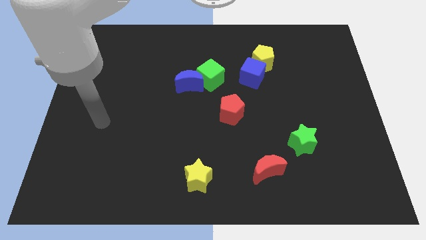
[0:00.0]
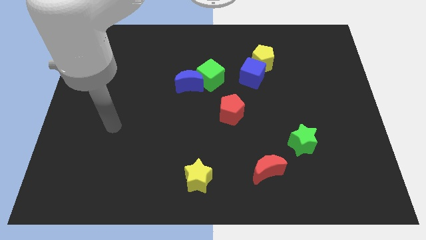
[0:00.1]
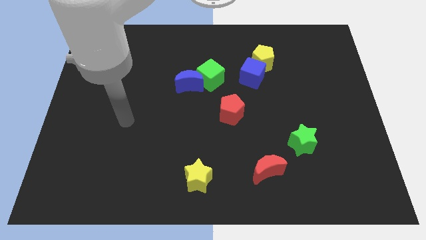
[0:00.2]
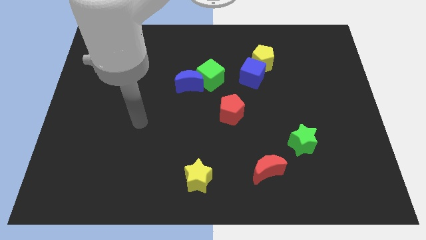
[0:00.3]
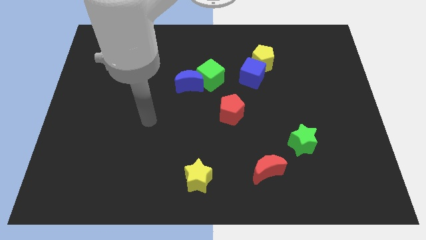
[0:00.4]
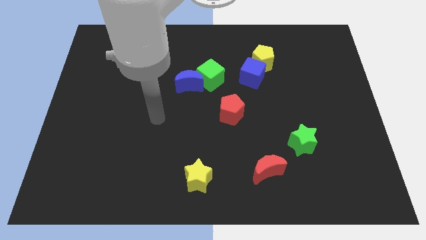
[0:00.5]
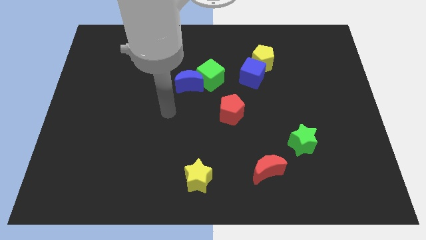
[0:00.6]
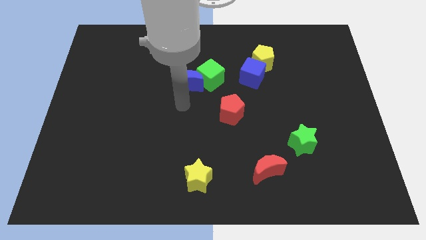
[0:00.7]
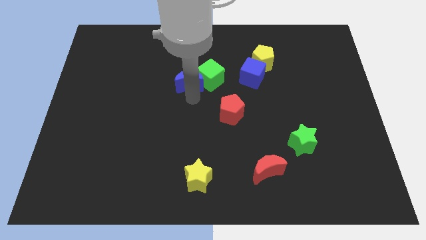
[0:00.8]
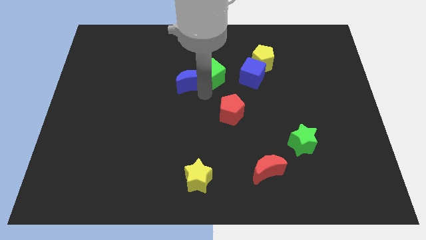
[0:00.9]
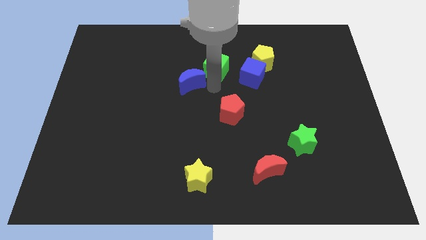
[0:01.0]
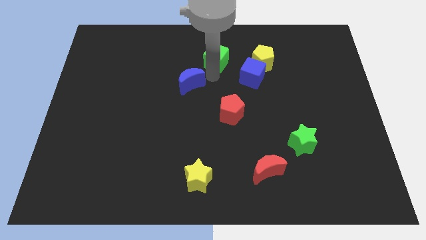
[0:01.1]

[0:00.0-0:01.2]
separate the blue moon from the green cube

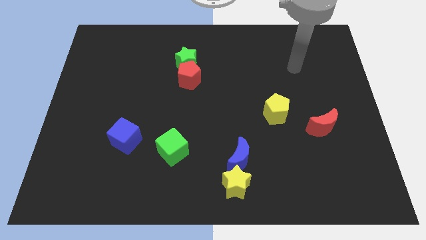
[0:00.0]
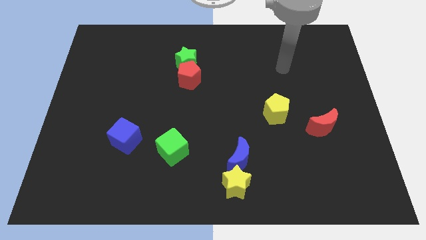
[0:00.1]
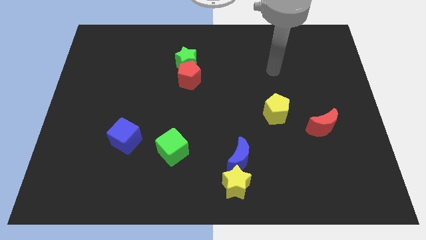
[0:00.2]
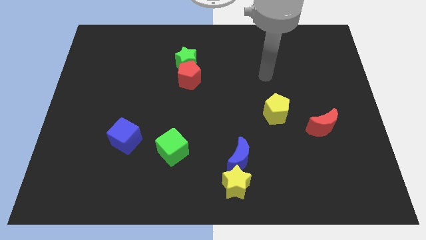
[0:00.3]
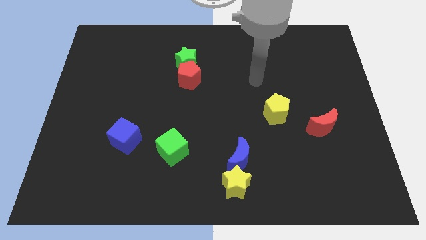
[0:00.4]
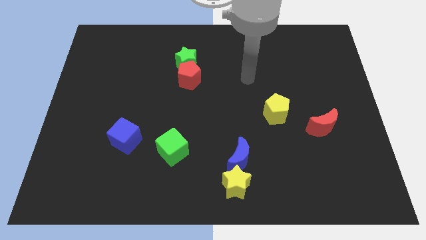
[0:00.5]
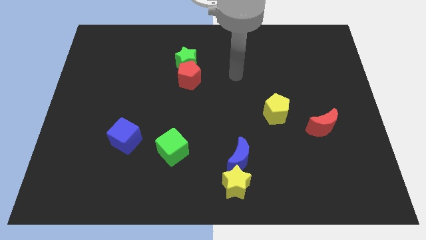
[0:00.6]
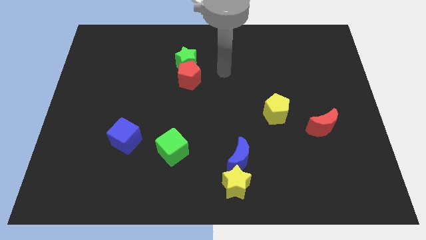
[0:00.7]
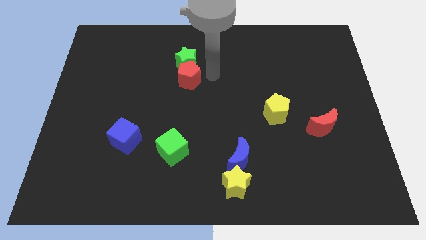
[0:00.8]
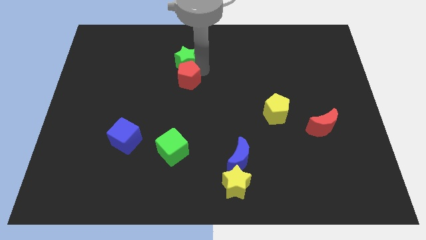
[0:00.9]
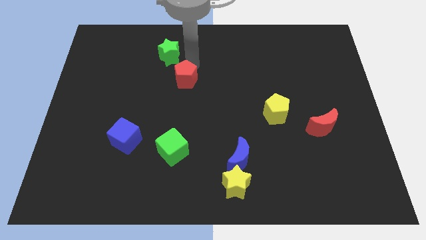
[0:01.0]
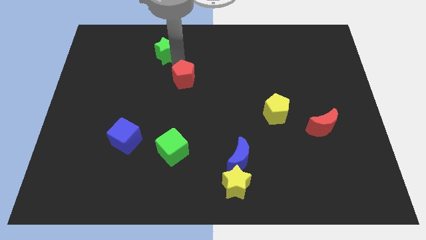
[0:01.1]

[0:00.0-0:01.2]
separate the red pentagon from the green star

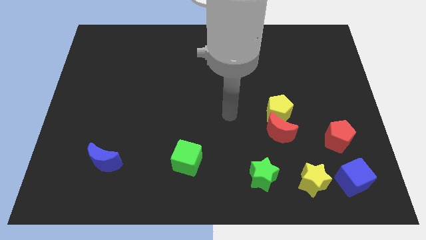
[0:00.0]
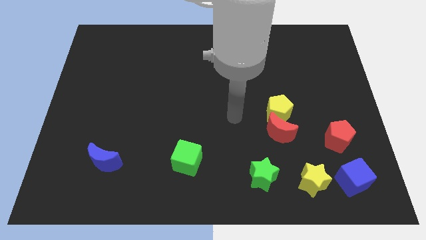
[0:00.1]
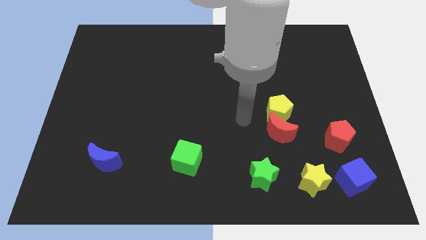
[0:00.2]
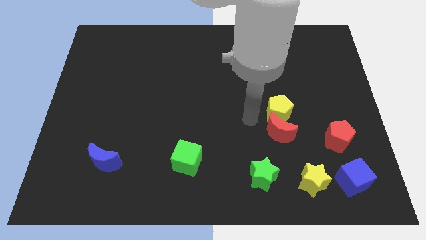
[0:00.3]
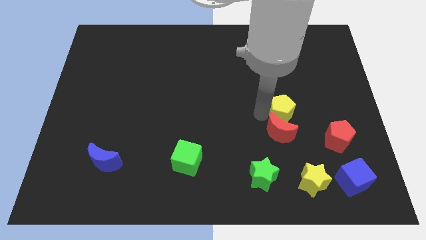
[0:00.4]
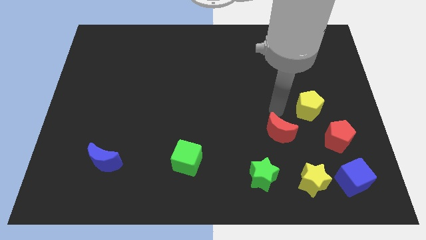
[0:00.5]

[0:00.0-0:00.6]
move the red moon away from the yellow pentagon

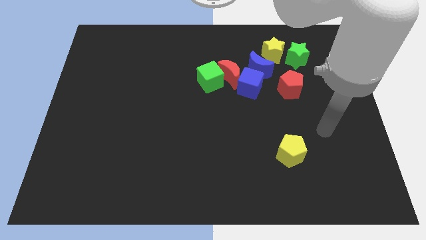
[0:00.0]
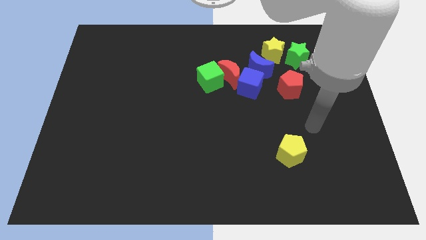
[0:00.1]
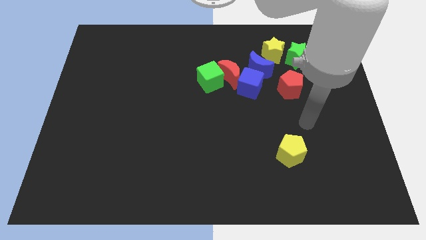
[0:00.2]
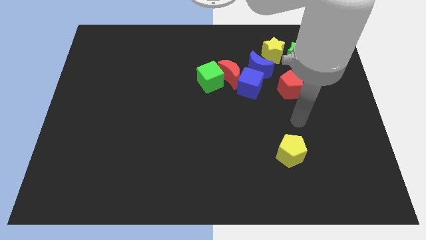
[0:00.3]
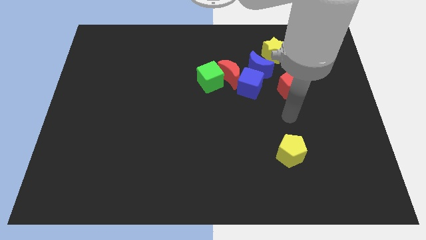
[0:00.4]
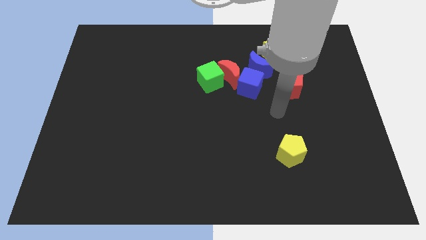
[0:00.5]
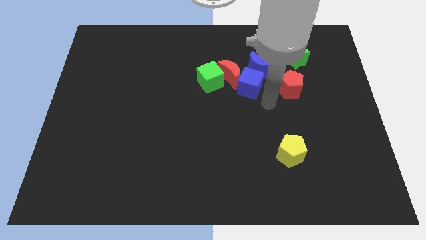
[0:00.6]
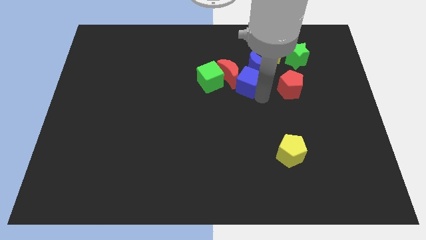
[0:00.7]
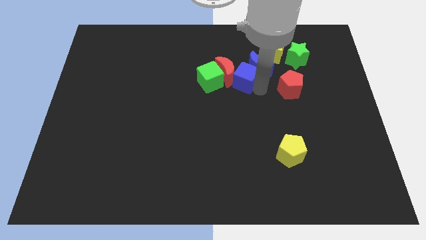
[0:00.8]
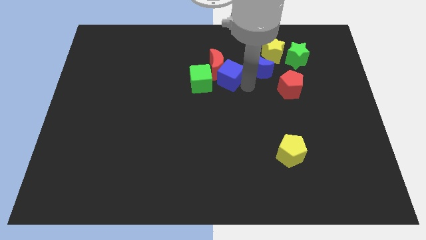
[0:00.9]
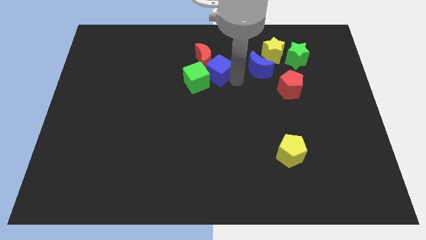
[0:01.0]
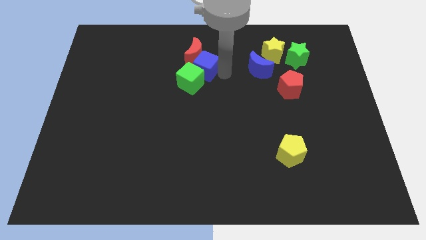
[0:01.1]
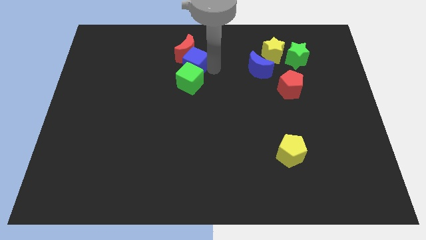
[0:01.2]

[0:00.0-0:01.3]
separate the red moon from the group of blocks

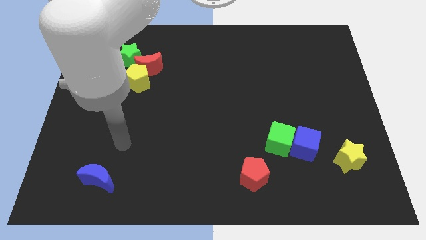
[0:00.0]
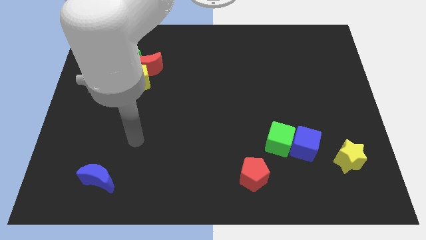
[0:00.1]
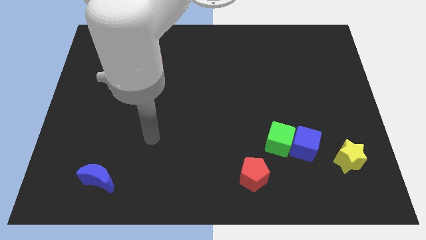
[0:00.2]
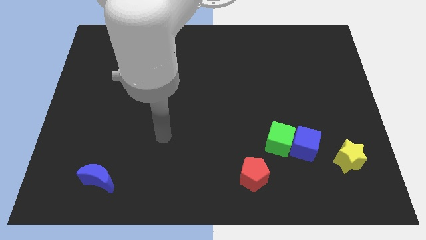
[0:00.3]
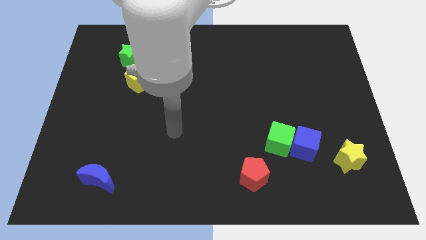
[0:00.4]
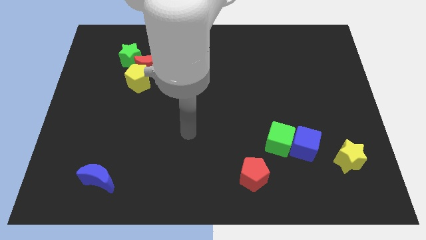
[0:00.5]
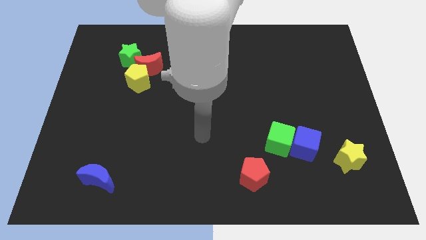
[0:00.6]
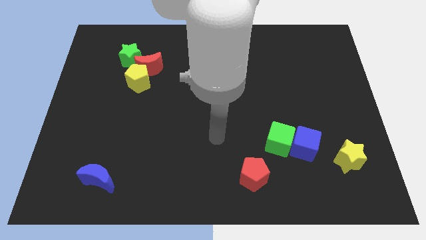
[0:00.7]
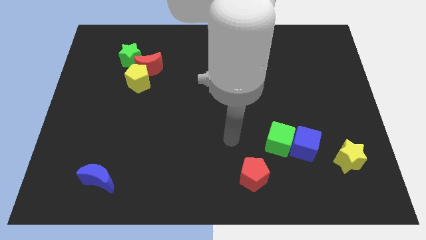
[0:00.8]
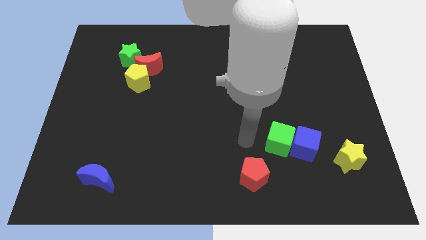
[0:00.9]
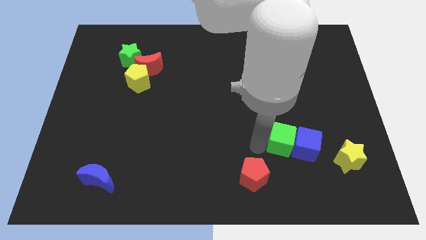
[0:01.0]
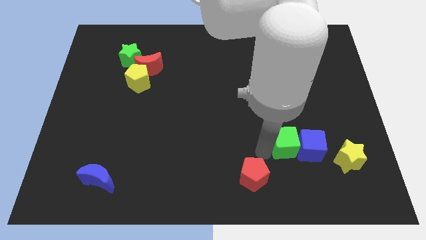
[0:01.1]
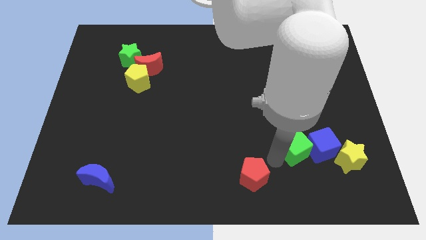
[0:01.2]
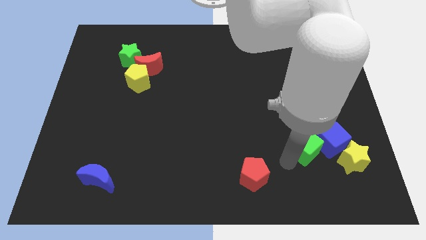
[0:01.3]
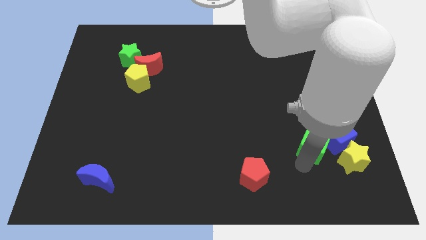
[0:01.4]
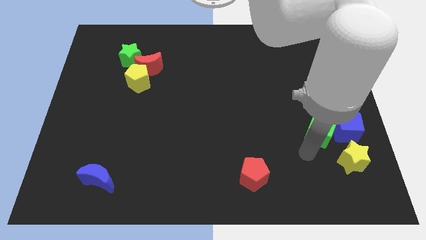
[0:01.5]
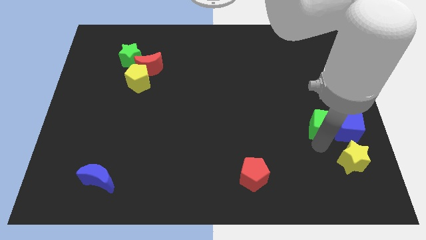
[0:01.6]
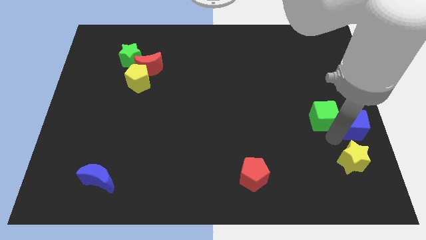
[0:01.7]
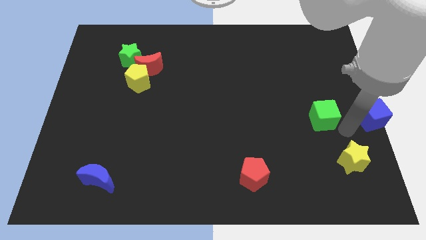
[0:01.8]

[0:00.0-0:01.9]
pull the green cube apart from the blue cube

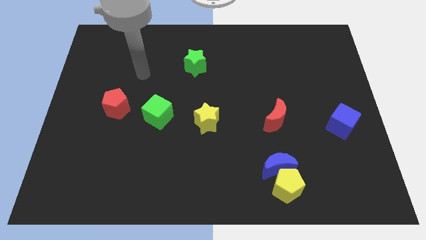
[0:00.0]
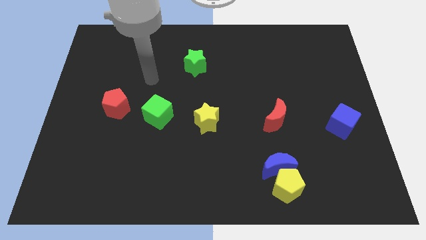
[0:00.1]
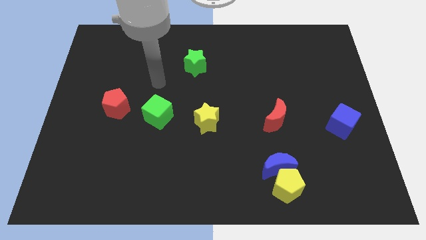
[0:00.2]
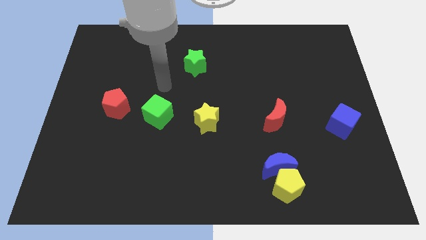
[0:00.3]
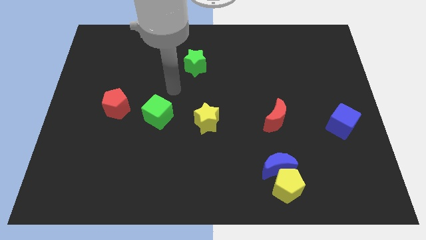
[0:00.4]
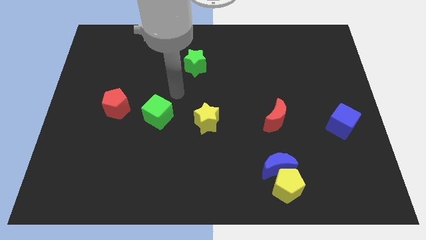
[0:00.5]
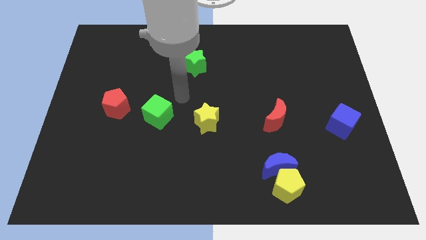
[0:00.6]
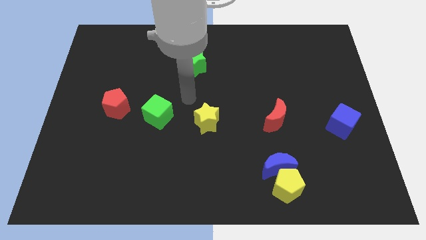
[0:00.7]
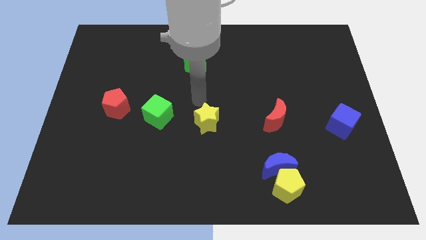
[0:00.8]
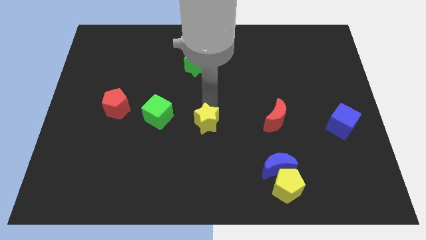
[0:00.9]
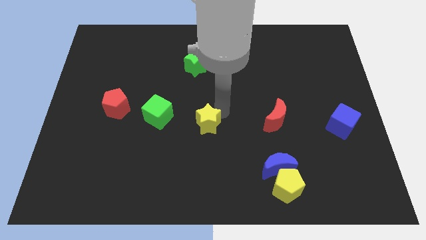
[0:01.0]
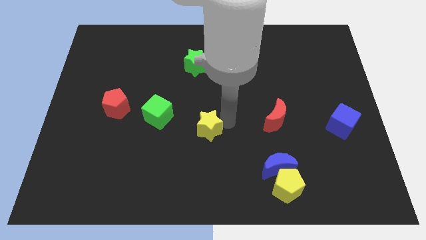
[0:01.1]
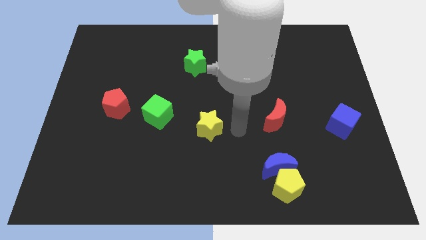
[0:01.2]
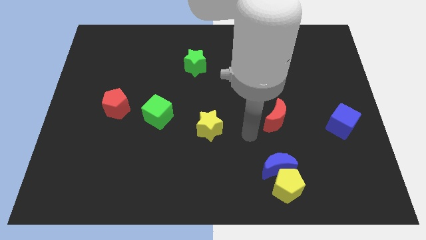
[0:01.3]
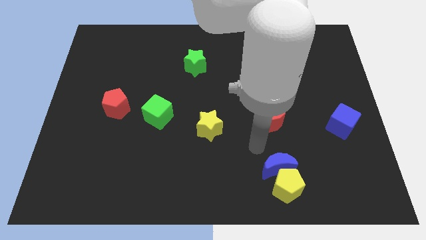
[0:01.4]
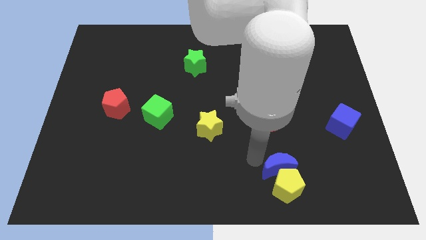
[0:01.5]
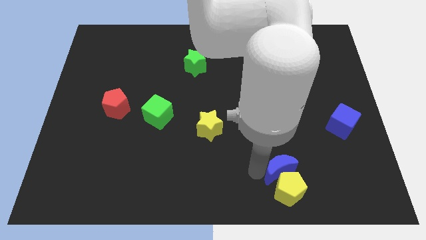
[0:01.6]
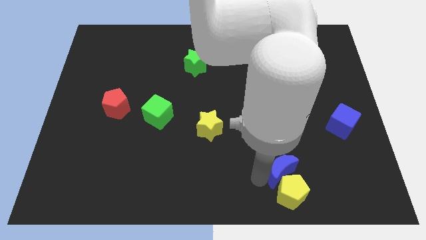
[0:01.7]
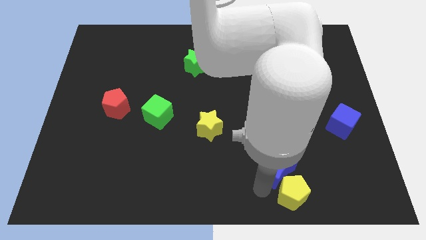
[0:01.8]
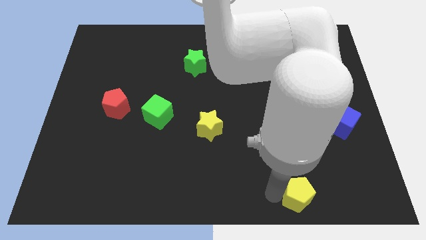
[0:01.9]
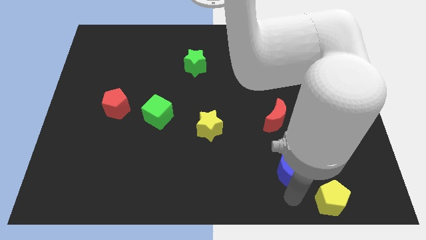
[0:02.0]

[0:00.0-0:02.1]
move the blue moon away from the yellow pentagon

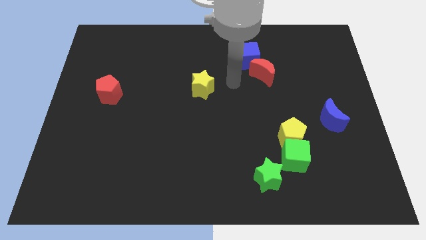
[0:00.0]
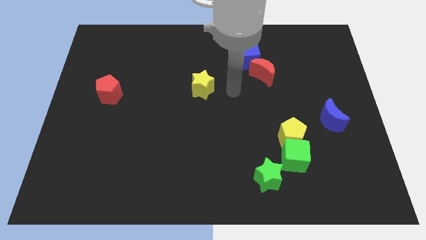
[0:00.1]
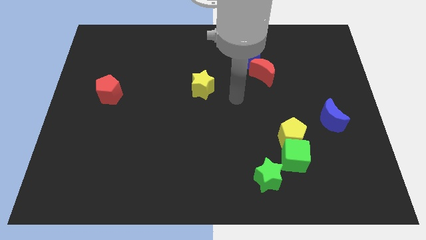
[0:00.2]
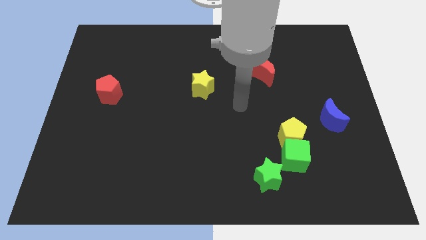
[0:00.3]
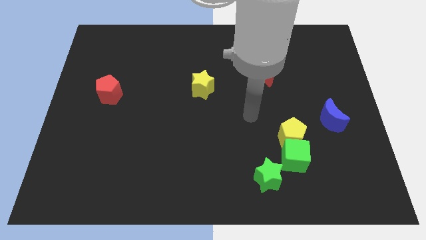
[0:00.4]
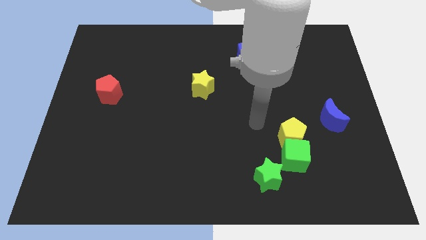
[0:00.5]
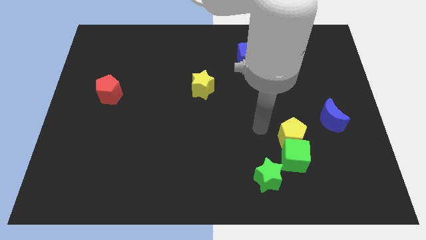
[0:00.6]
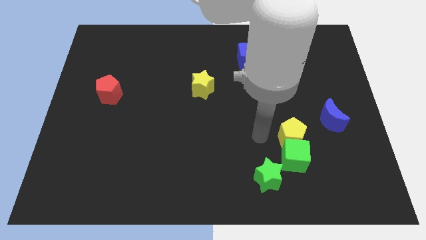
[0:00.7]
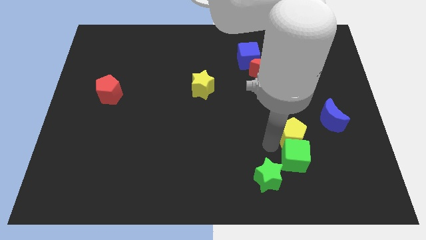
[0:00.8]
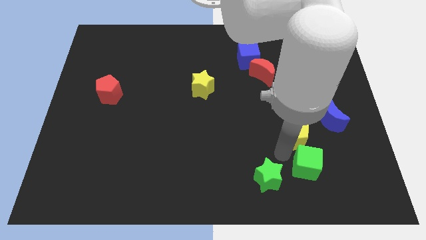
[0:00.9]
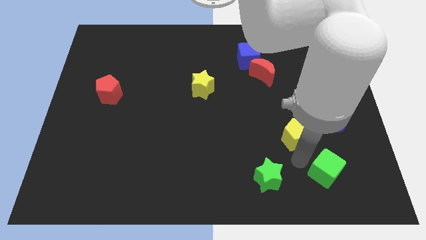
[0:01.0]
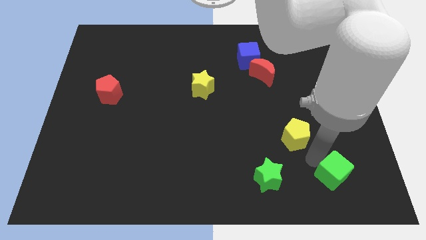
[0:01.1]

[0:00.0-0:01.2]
separate the yellow pentagon from the green cube
